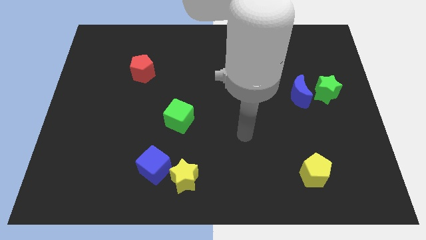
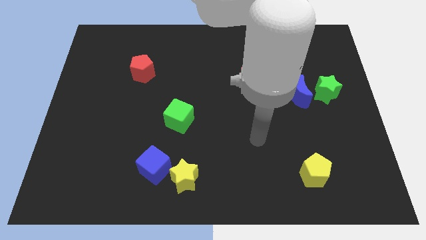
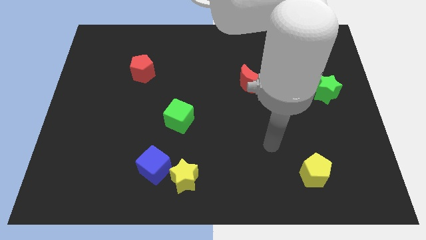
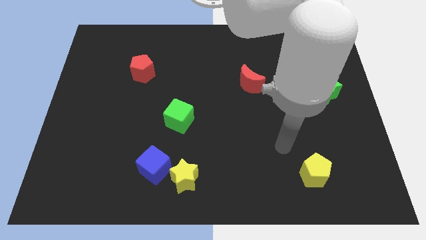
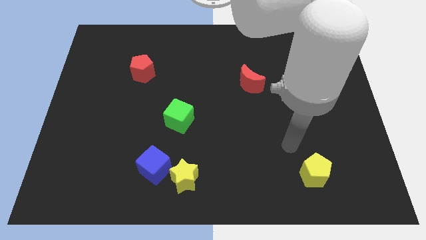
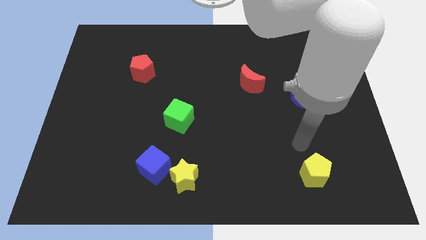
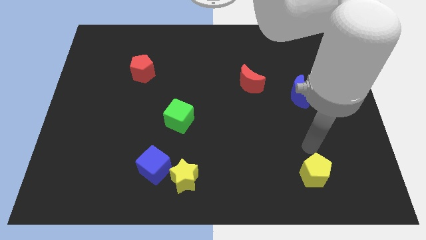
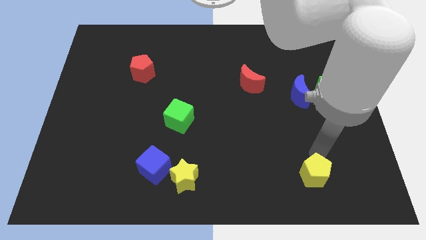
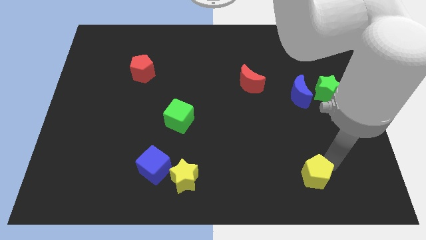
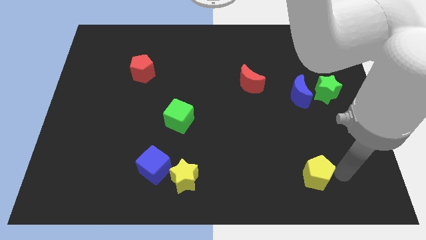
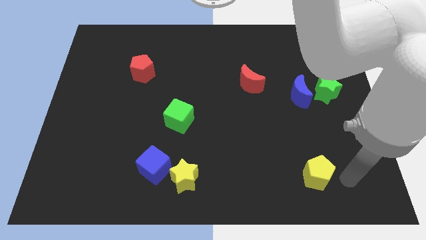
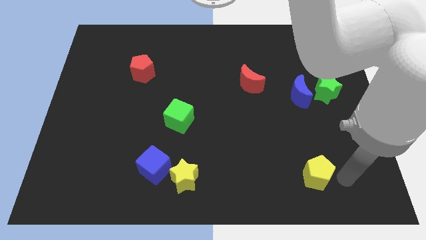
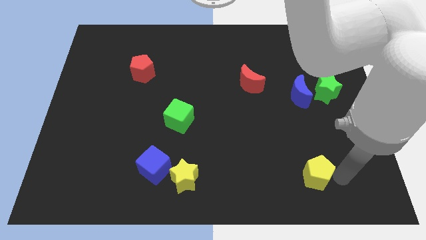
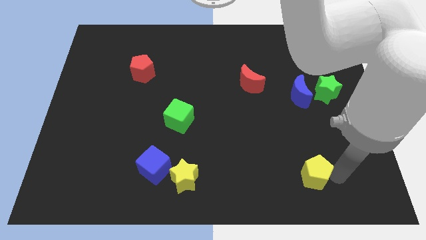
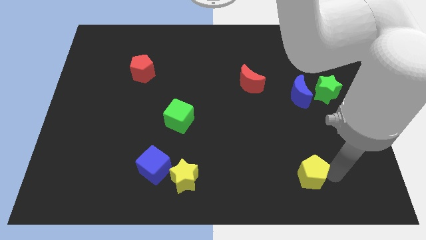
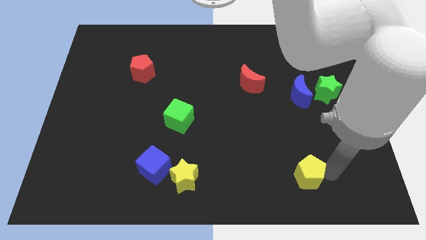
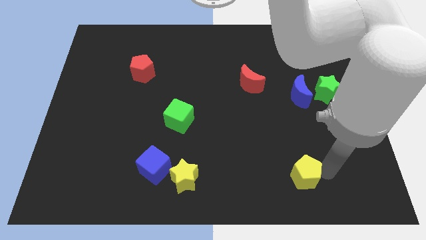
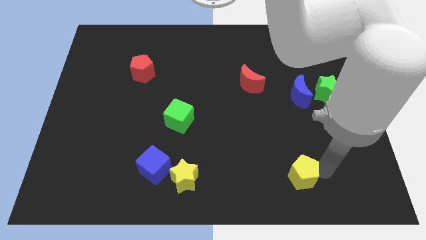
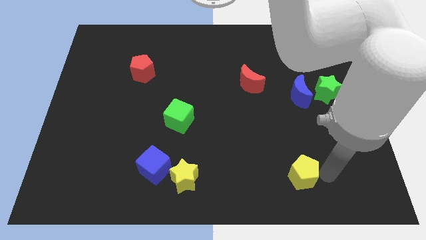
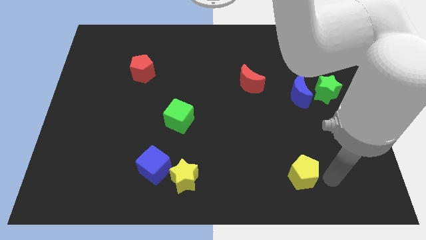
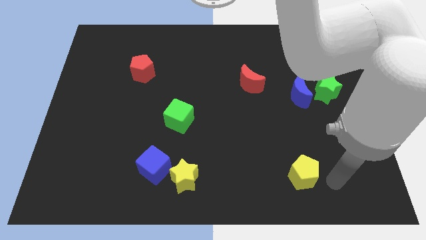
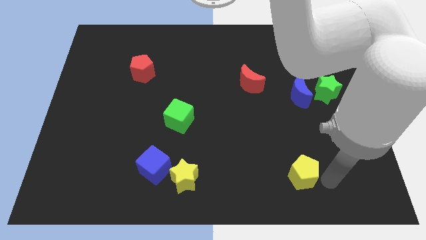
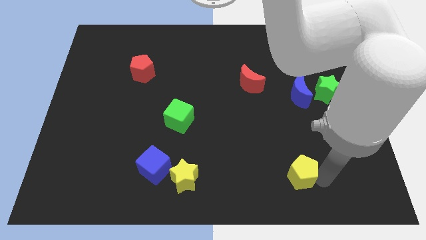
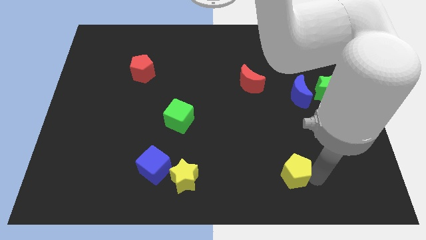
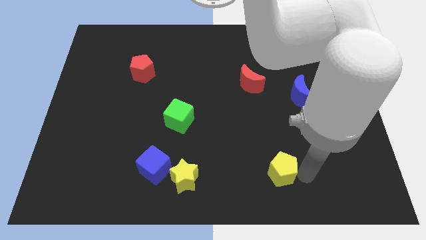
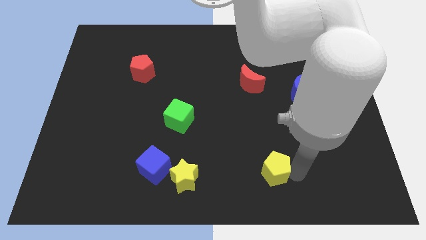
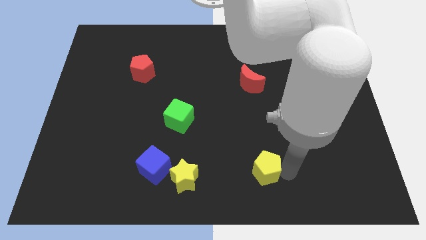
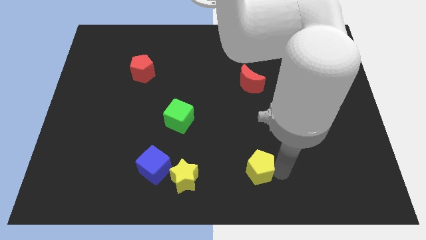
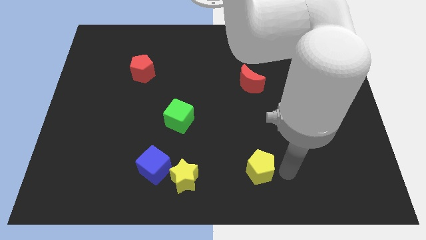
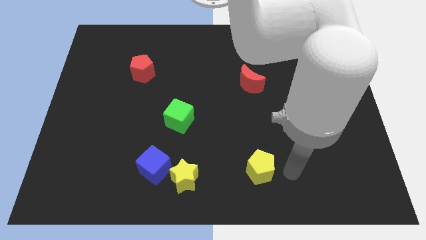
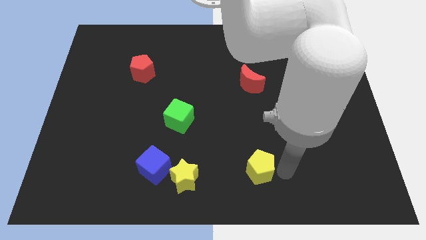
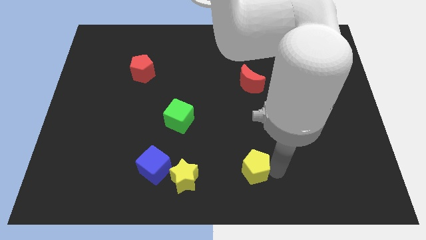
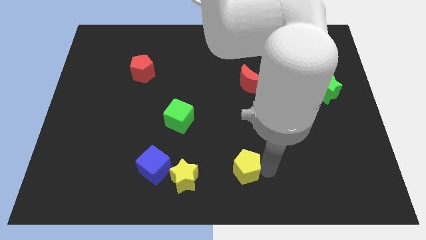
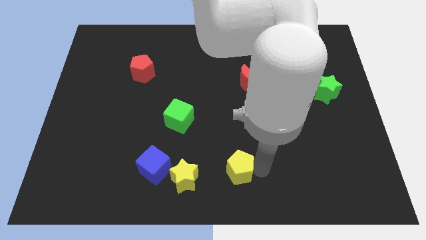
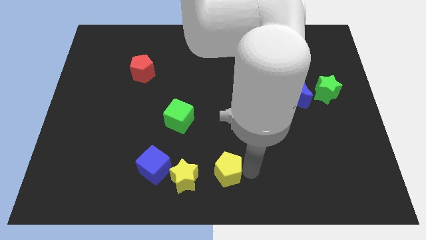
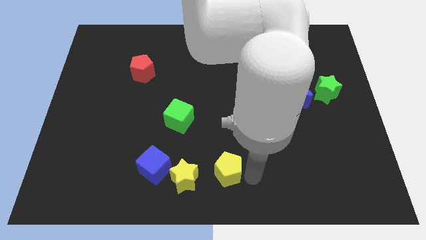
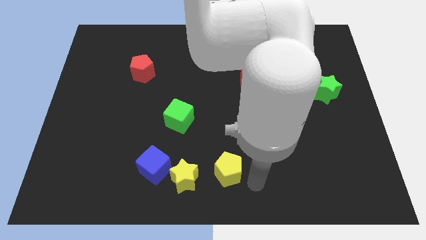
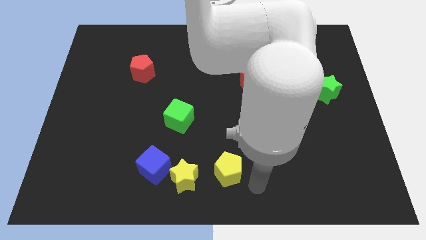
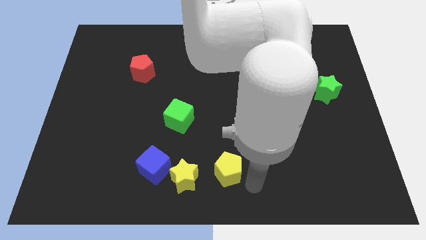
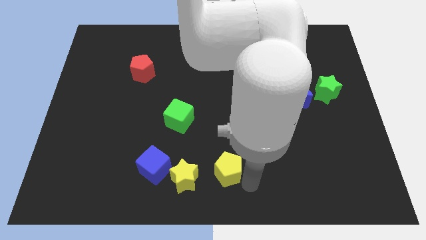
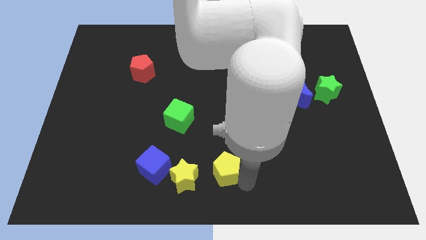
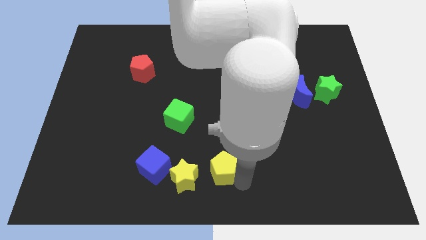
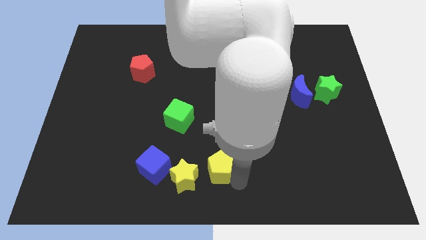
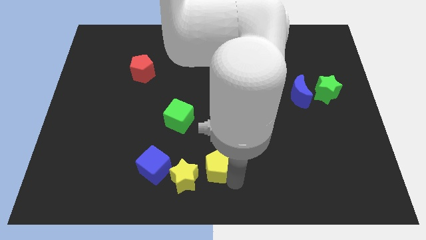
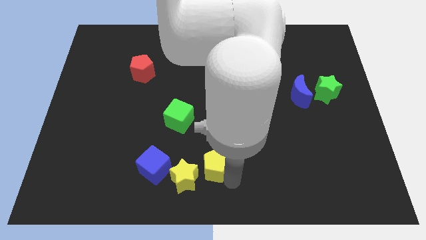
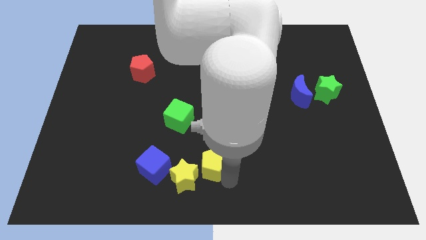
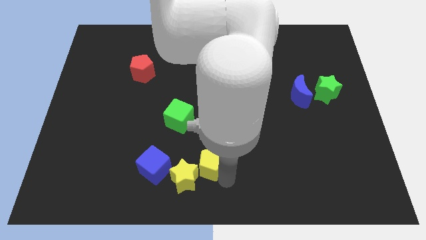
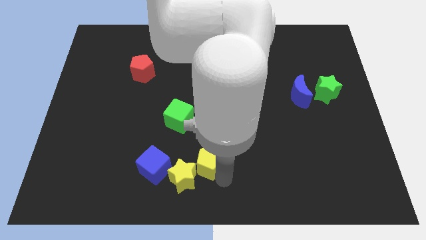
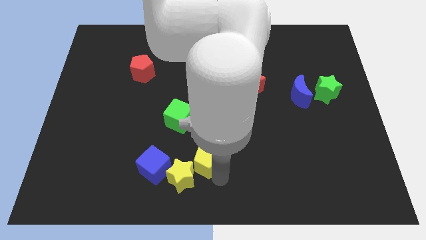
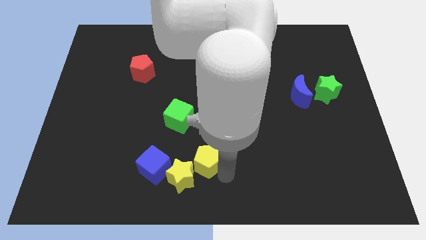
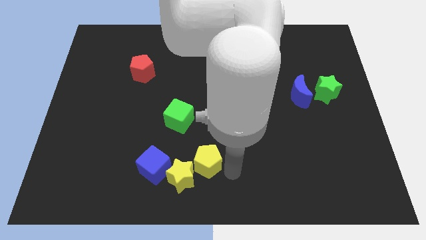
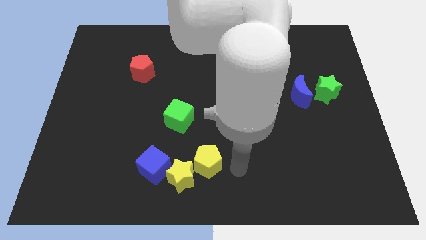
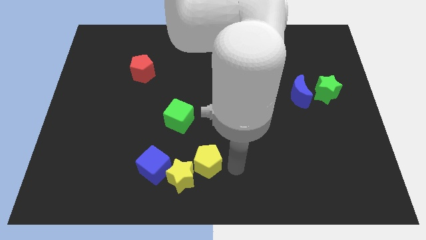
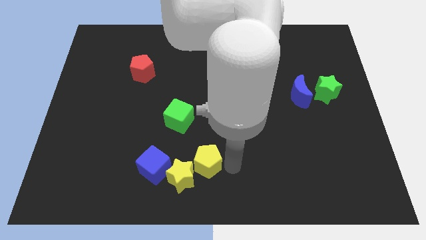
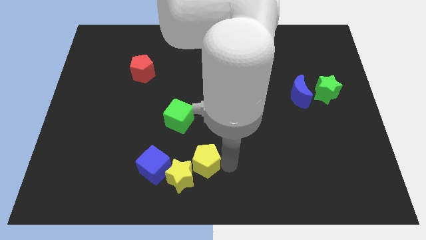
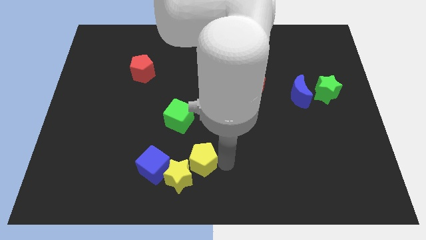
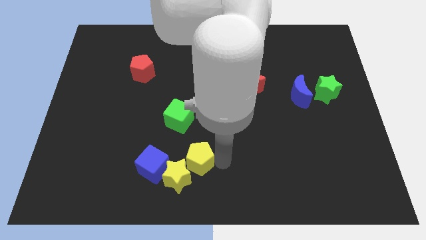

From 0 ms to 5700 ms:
put the yellow pentagon to the bottom of the green cube

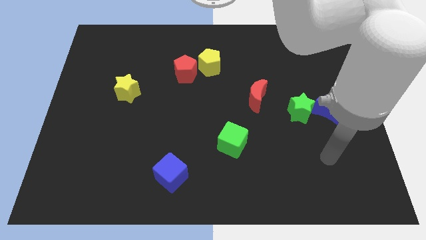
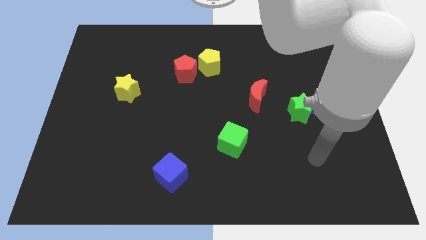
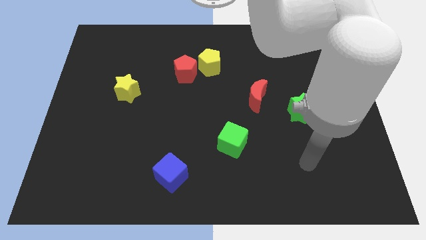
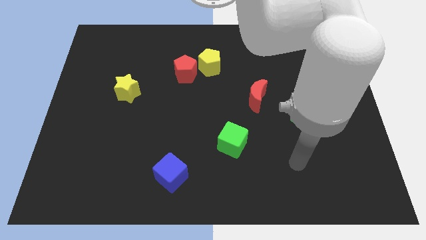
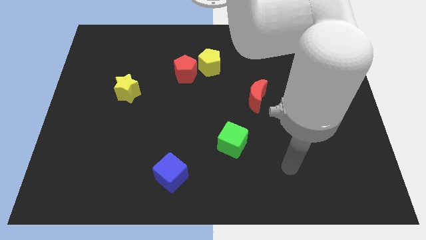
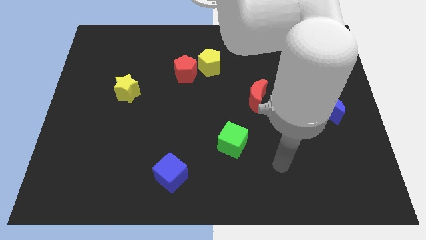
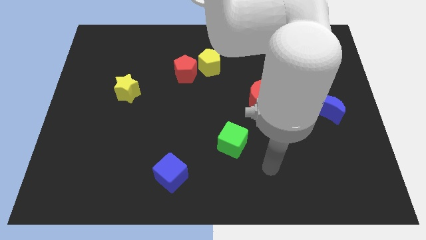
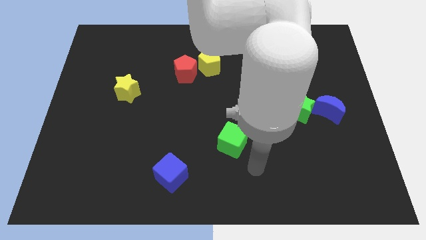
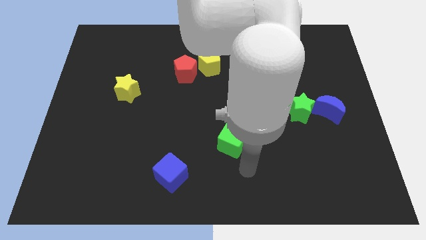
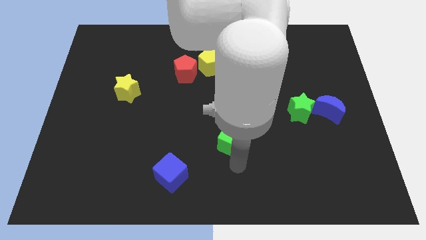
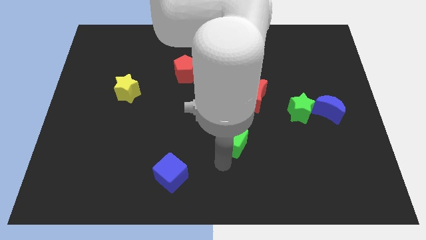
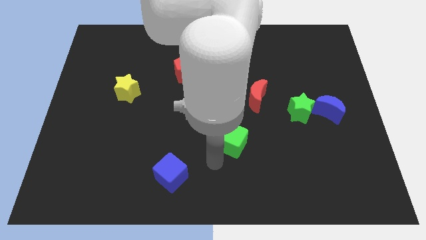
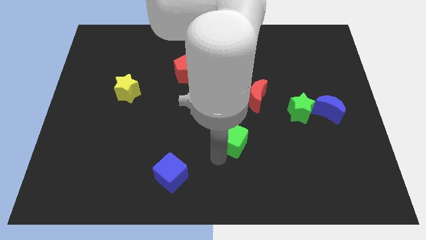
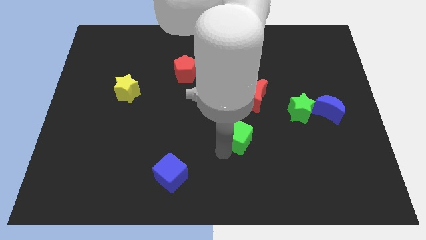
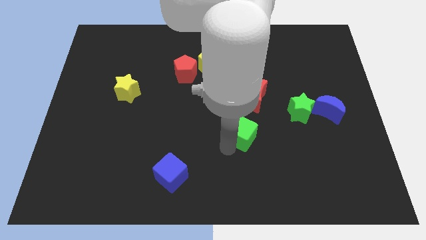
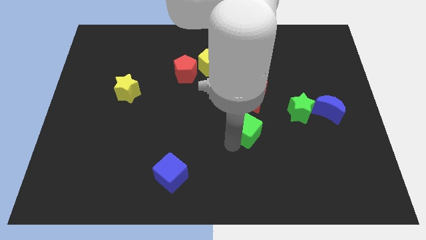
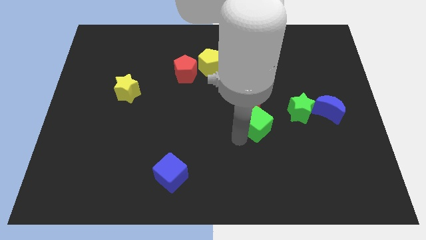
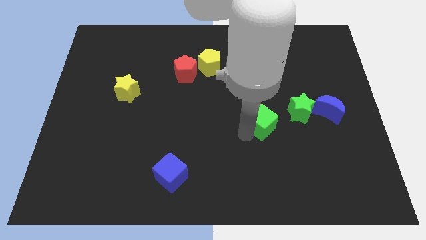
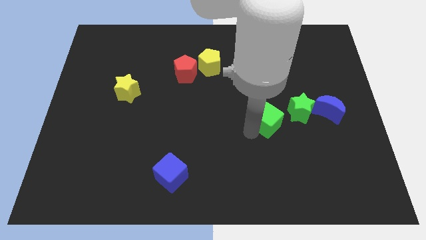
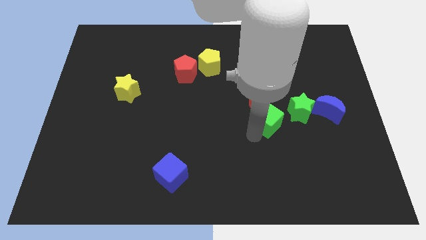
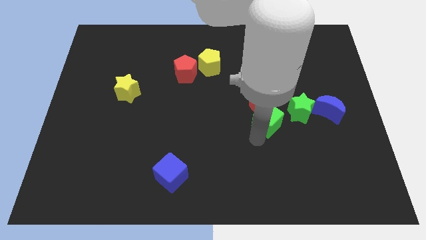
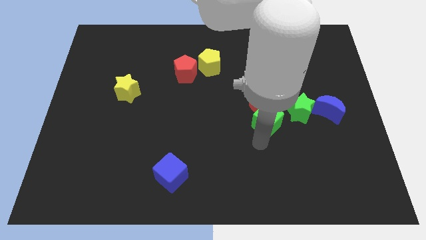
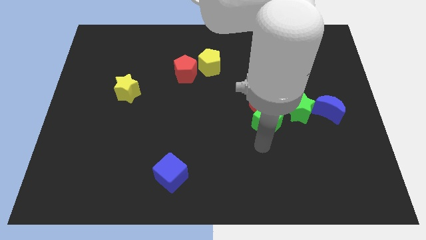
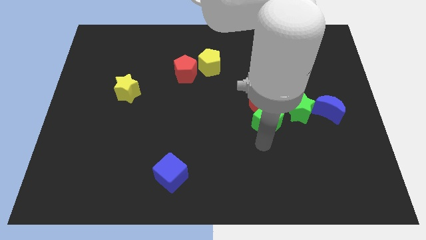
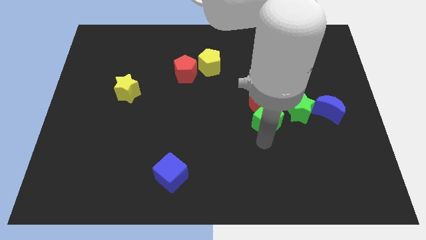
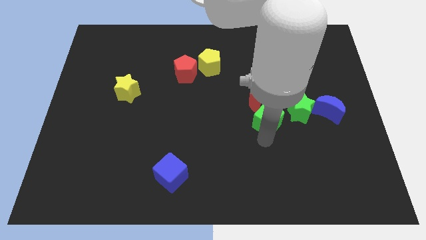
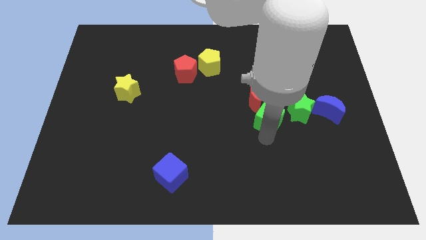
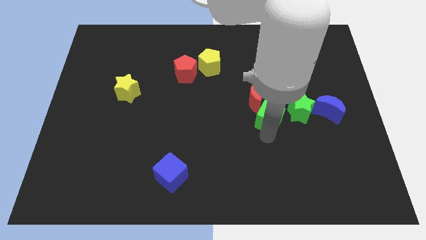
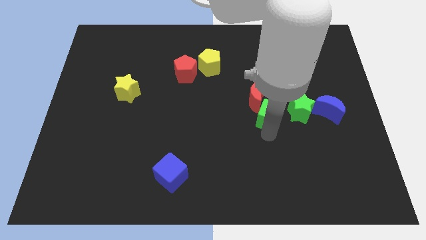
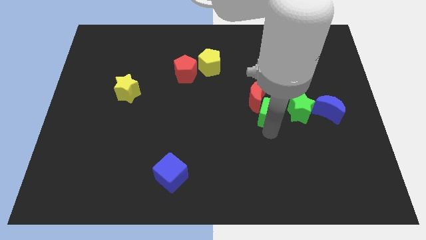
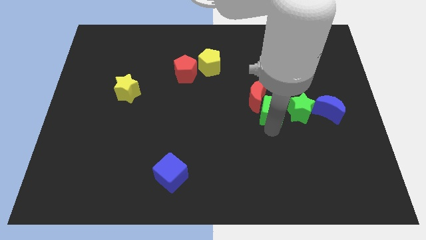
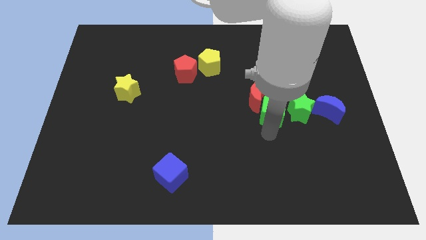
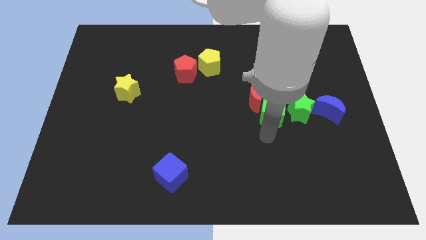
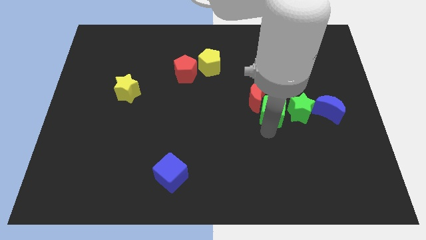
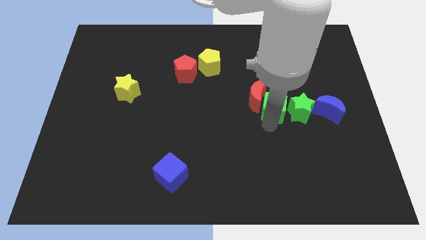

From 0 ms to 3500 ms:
put the green cube to the top left of the green star
